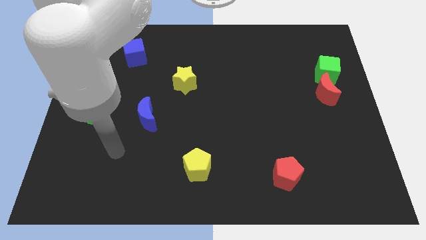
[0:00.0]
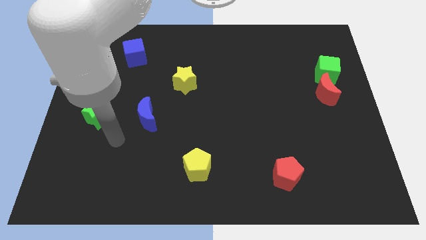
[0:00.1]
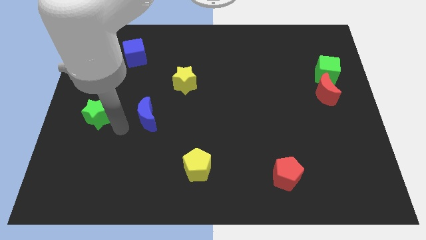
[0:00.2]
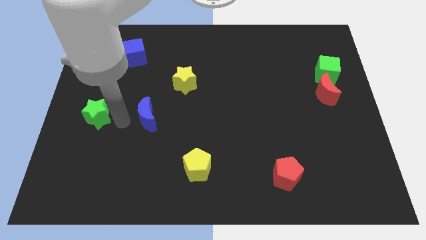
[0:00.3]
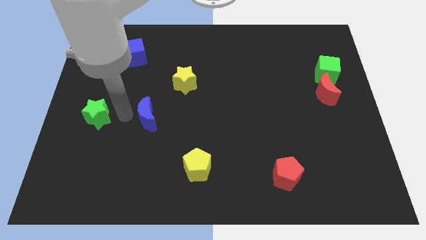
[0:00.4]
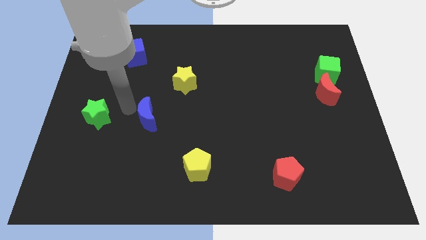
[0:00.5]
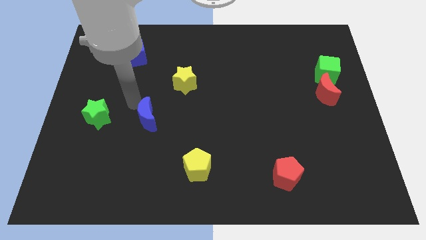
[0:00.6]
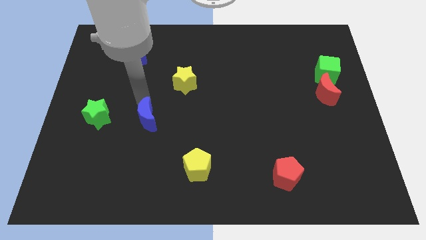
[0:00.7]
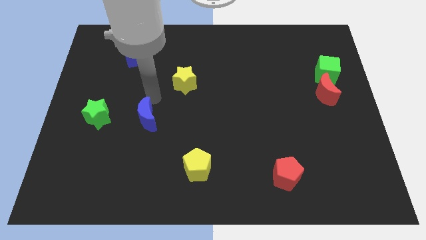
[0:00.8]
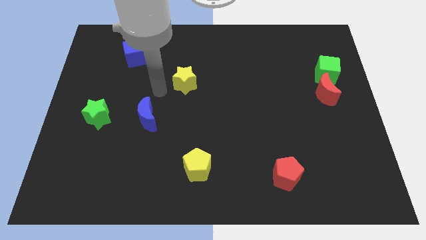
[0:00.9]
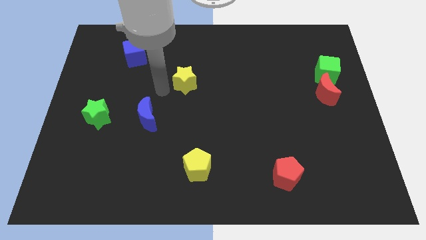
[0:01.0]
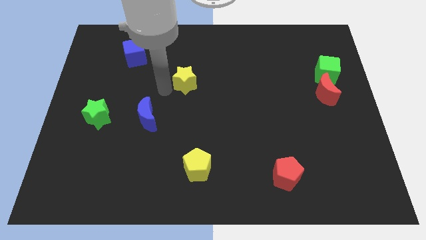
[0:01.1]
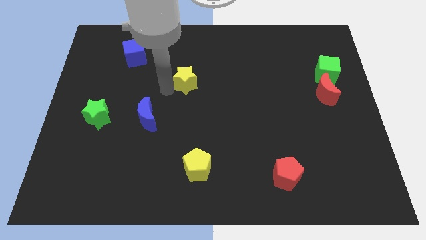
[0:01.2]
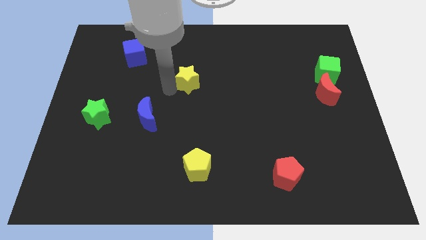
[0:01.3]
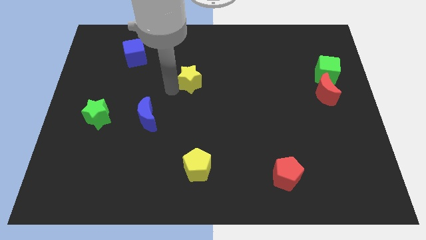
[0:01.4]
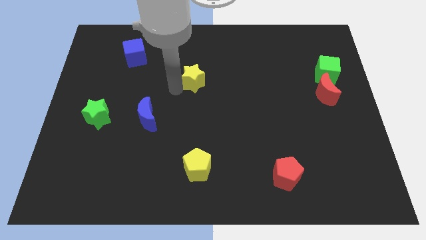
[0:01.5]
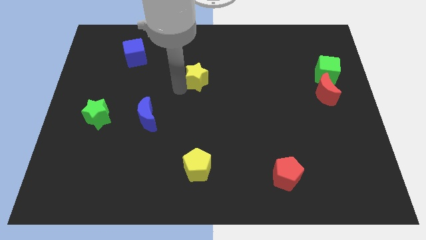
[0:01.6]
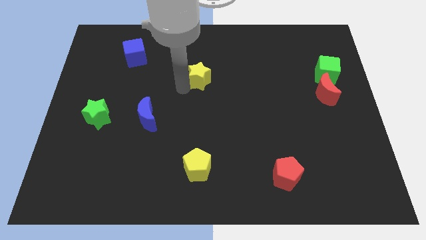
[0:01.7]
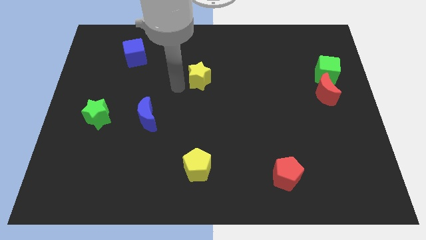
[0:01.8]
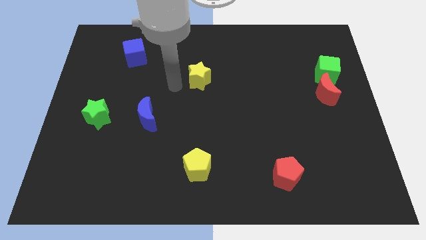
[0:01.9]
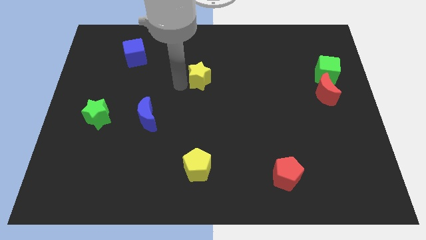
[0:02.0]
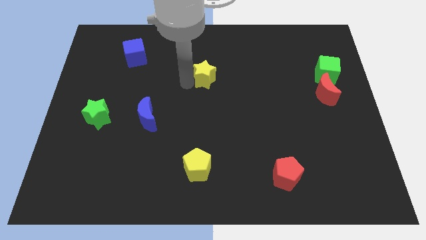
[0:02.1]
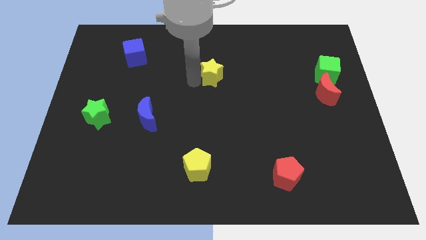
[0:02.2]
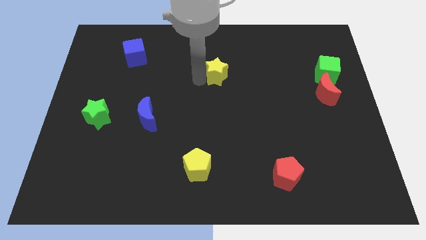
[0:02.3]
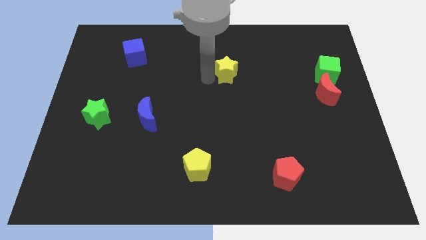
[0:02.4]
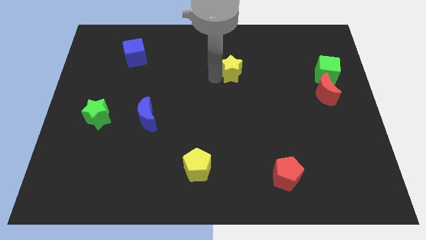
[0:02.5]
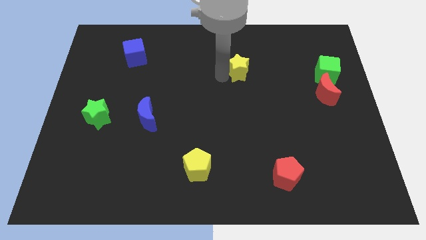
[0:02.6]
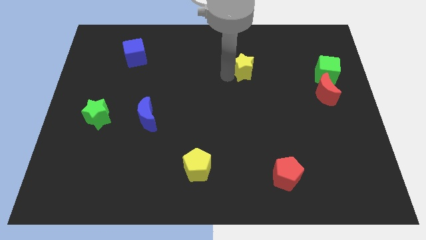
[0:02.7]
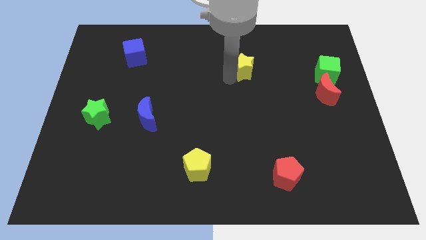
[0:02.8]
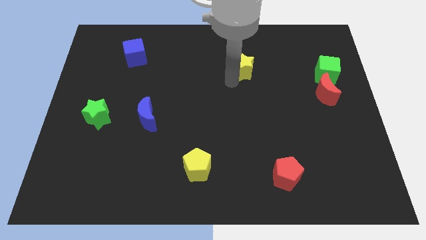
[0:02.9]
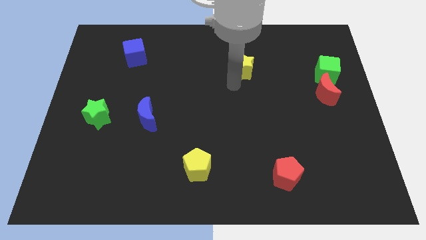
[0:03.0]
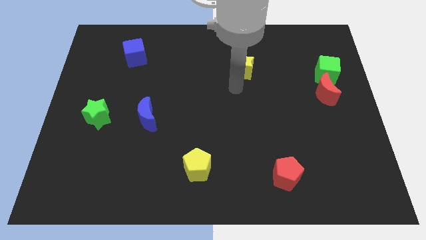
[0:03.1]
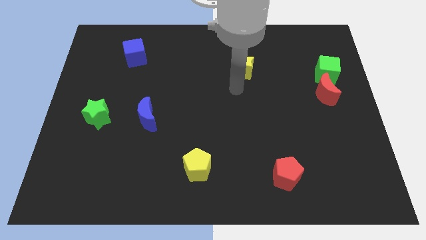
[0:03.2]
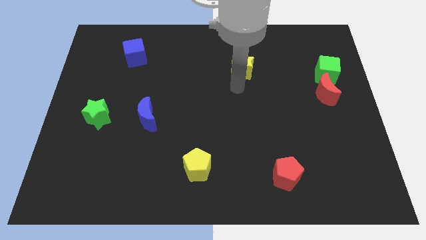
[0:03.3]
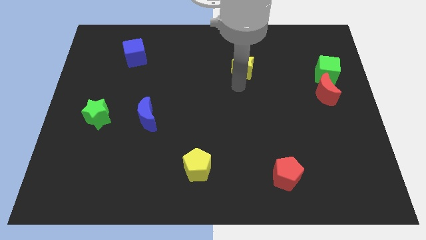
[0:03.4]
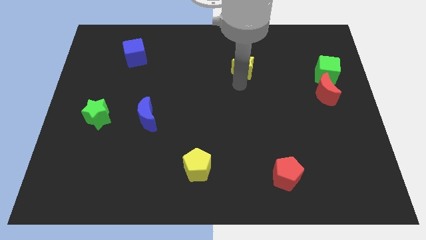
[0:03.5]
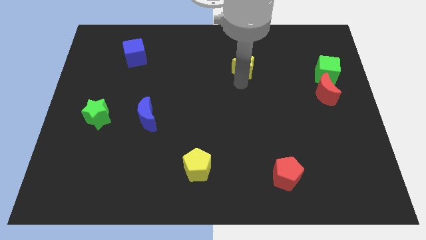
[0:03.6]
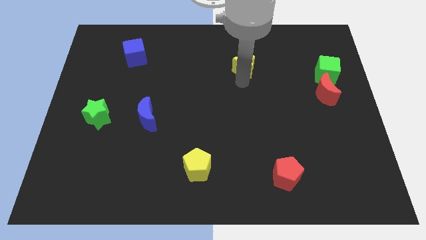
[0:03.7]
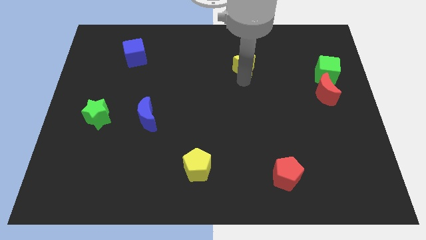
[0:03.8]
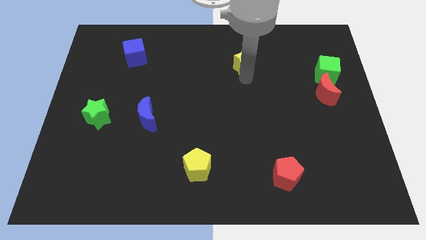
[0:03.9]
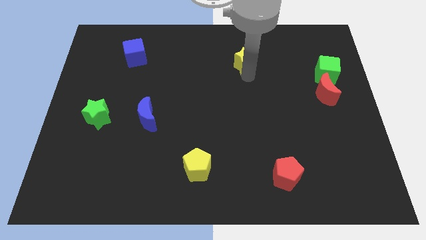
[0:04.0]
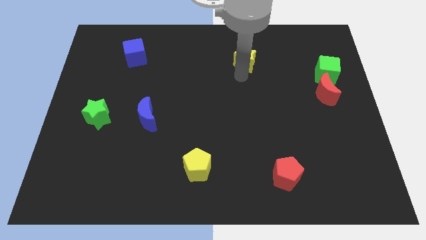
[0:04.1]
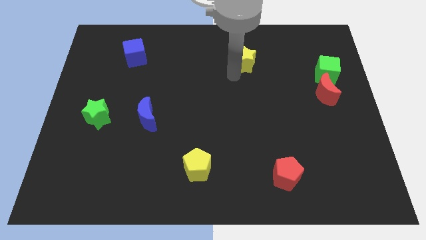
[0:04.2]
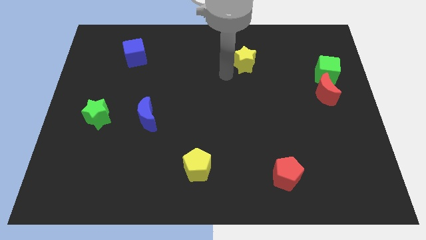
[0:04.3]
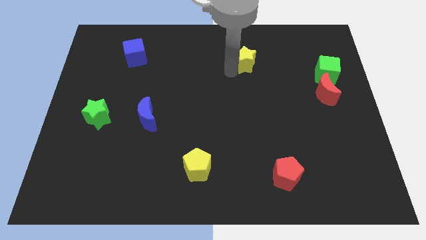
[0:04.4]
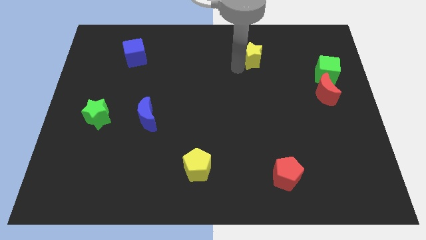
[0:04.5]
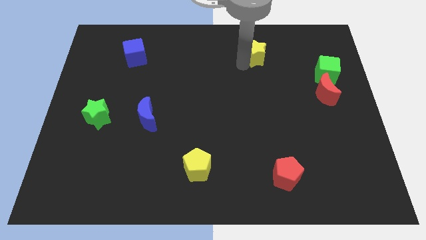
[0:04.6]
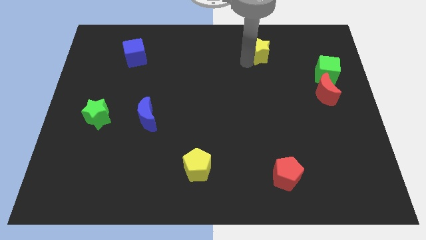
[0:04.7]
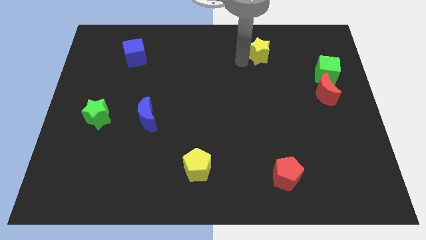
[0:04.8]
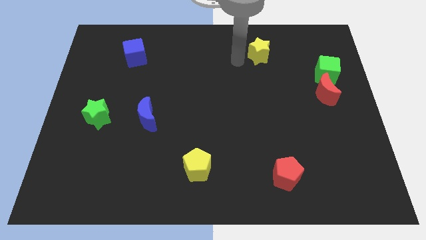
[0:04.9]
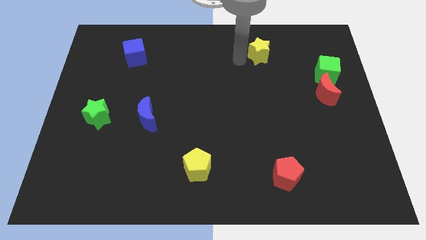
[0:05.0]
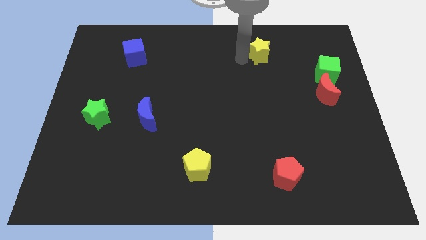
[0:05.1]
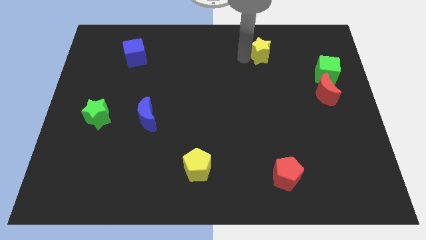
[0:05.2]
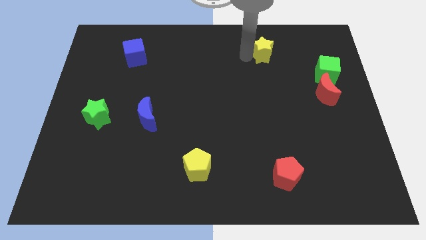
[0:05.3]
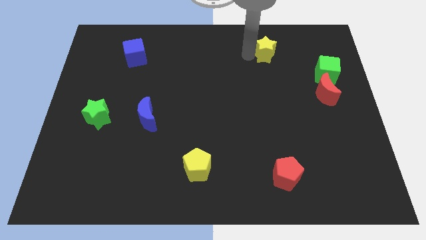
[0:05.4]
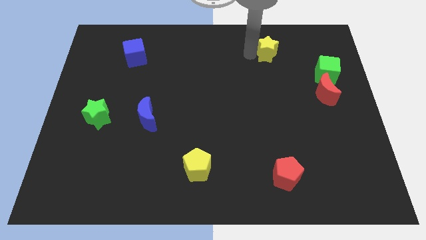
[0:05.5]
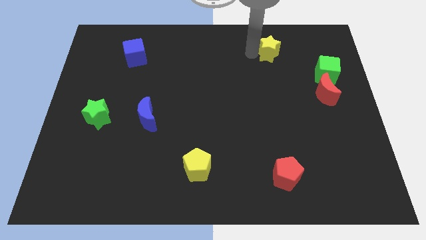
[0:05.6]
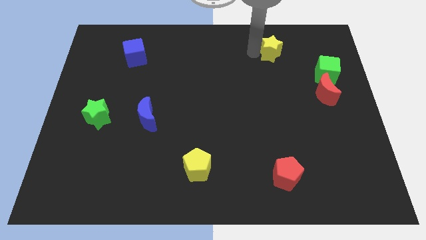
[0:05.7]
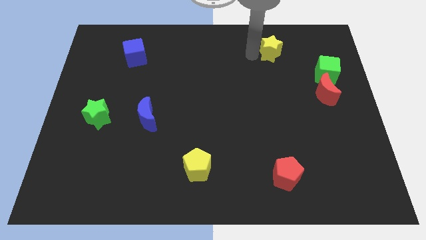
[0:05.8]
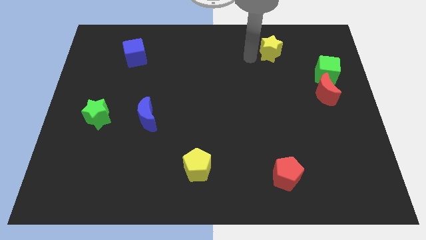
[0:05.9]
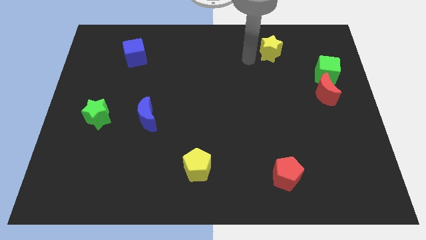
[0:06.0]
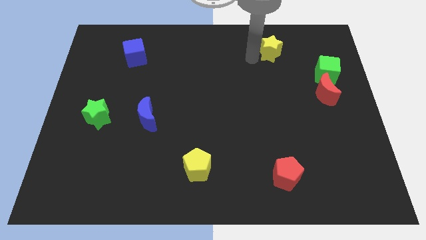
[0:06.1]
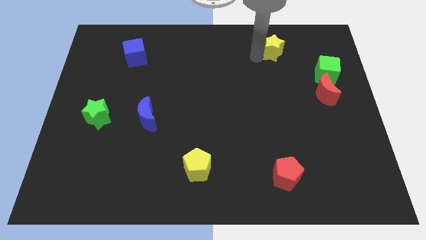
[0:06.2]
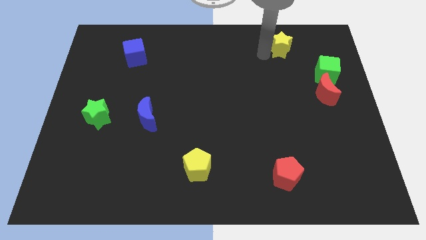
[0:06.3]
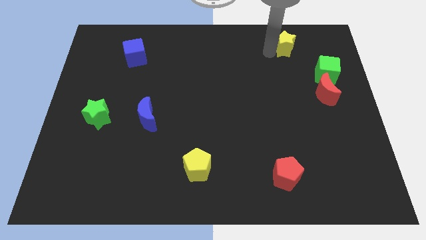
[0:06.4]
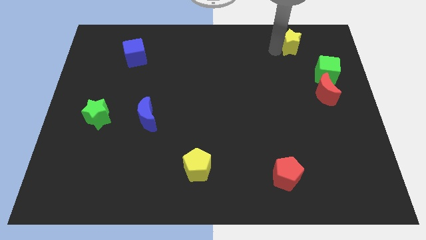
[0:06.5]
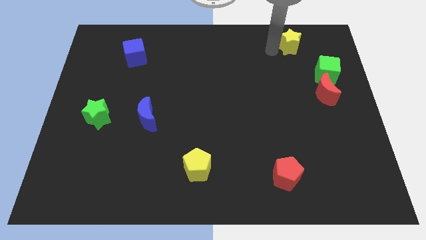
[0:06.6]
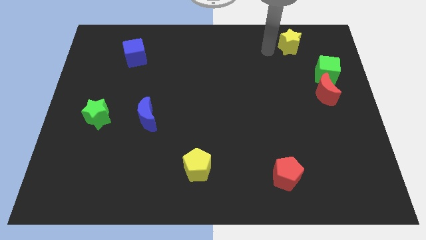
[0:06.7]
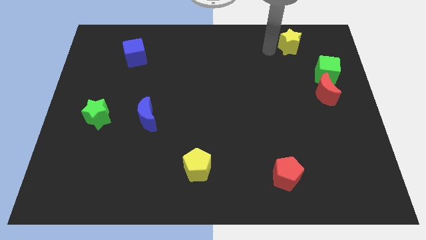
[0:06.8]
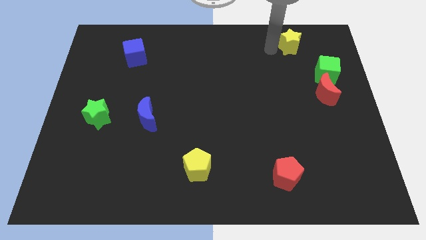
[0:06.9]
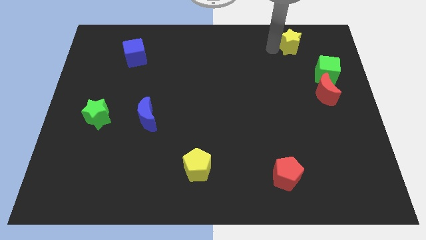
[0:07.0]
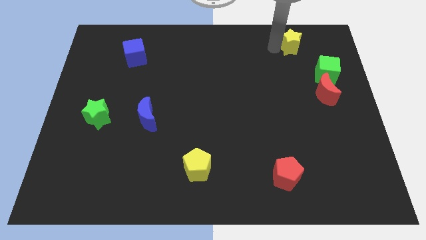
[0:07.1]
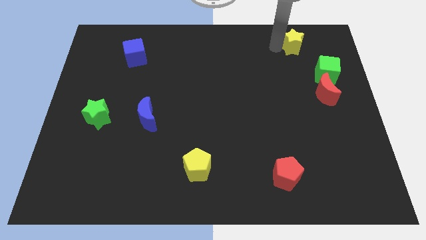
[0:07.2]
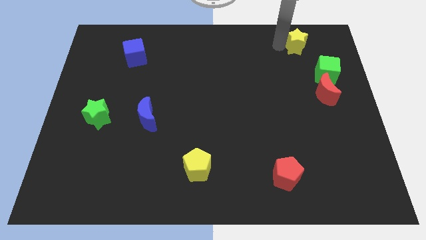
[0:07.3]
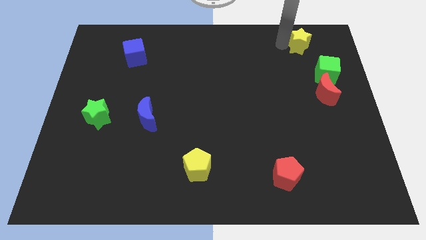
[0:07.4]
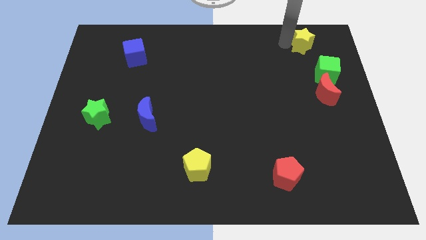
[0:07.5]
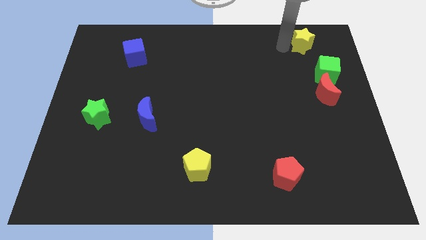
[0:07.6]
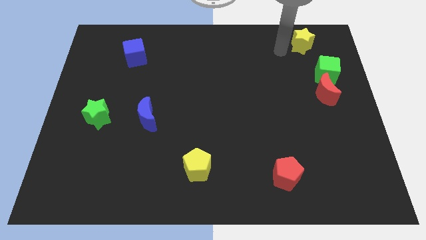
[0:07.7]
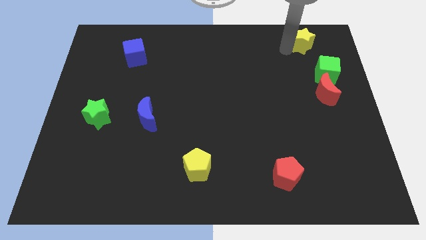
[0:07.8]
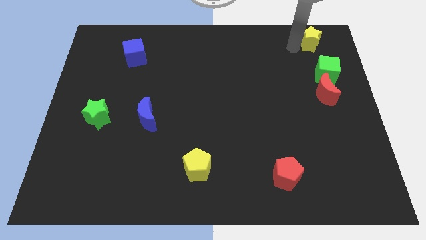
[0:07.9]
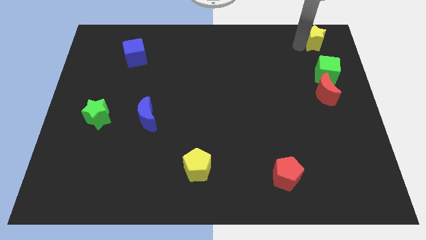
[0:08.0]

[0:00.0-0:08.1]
slide the yellow star to the top right of the board
